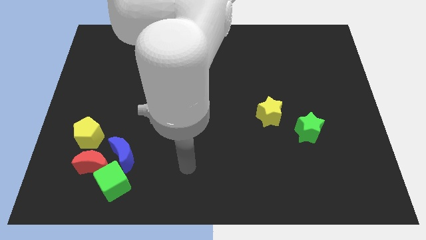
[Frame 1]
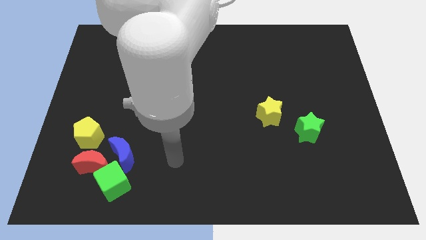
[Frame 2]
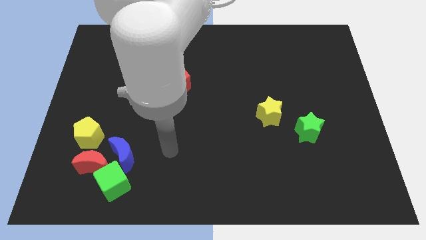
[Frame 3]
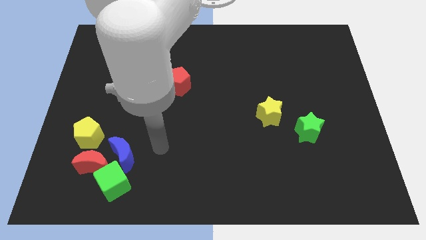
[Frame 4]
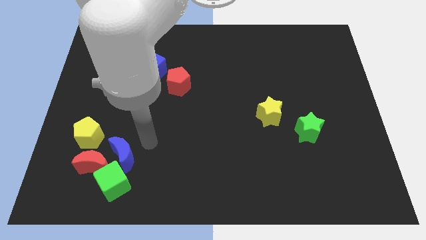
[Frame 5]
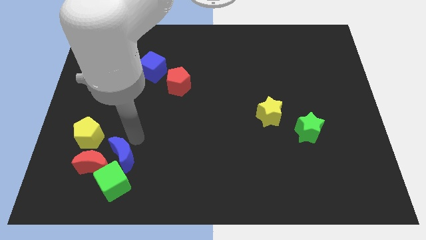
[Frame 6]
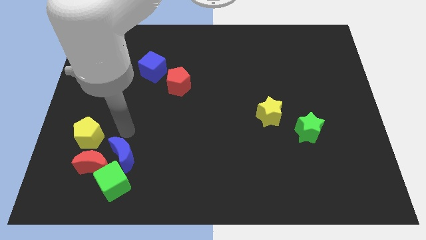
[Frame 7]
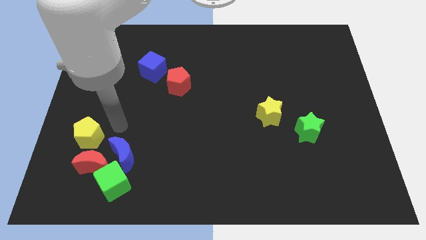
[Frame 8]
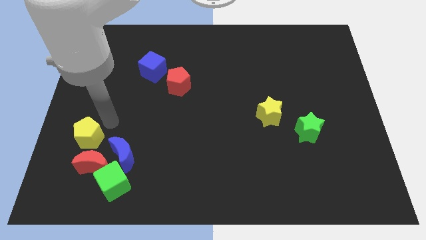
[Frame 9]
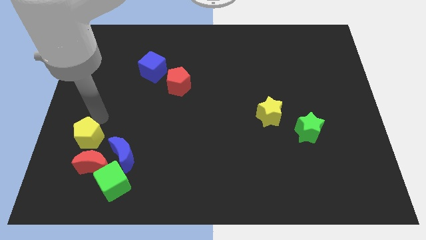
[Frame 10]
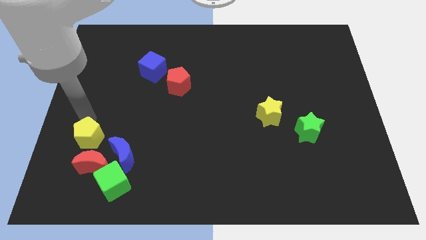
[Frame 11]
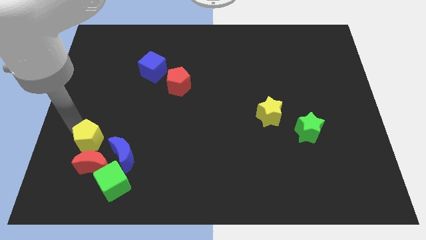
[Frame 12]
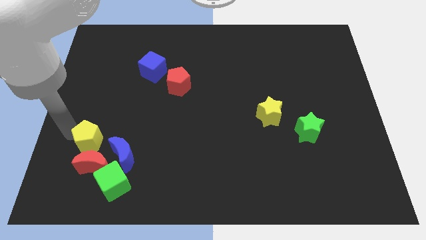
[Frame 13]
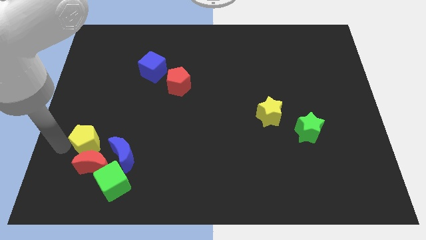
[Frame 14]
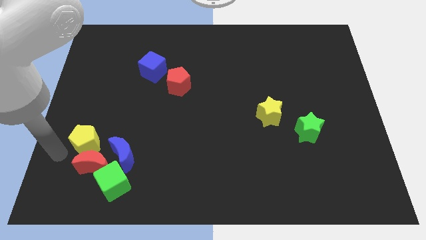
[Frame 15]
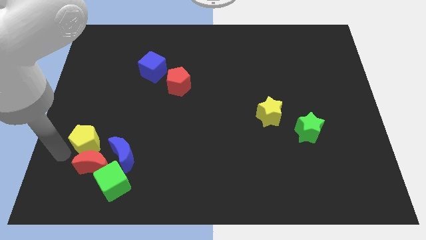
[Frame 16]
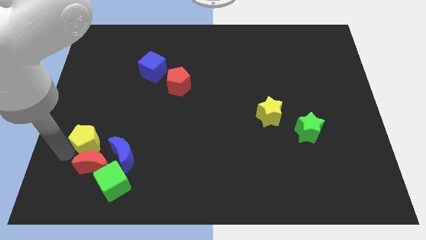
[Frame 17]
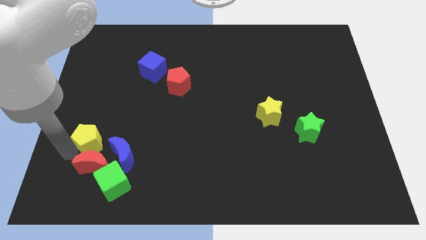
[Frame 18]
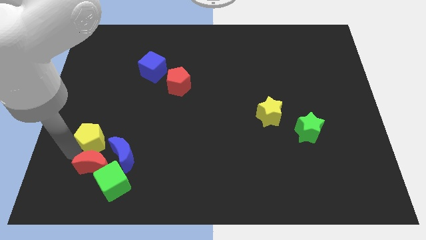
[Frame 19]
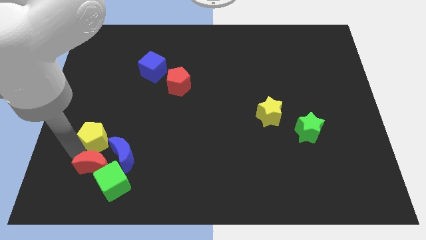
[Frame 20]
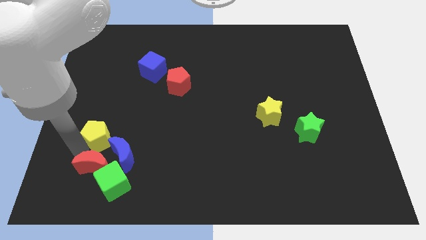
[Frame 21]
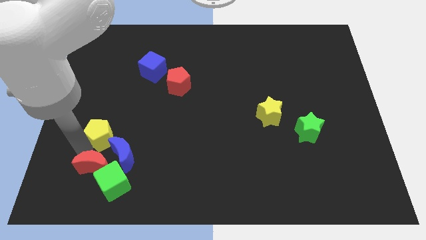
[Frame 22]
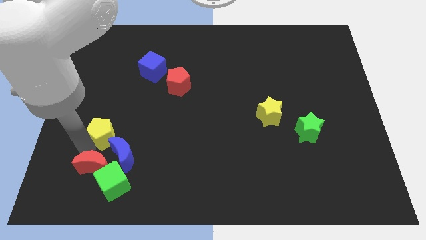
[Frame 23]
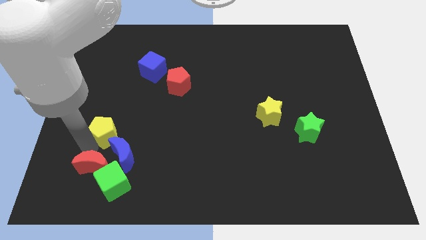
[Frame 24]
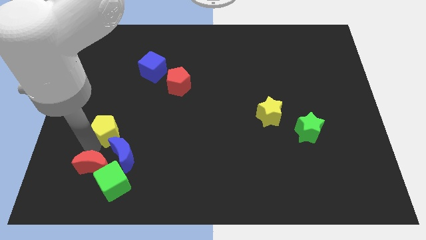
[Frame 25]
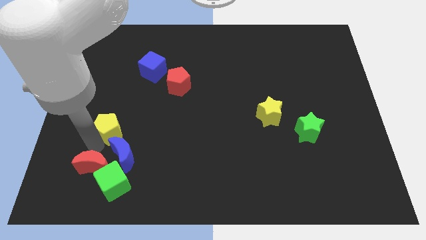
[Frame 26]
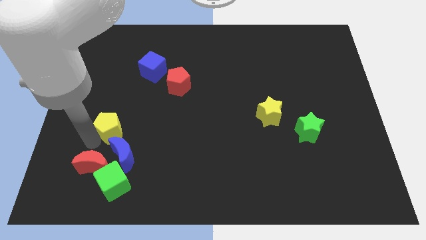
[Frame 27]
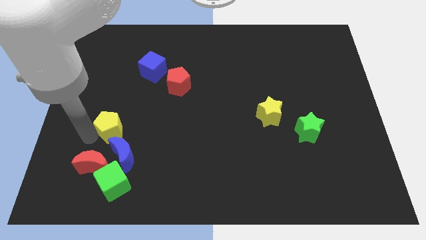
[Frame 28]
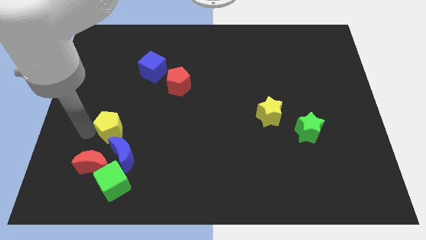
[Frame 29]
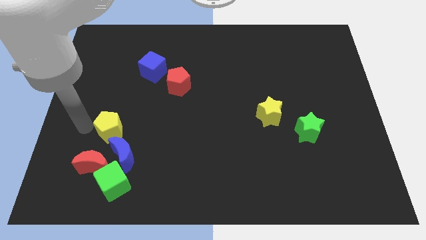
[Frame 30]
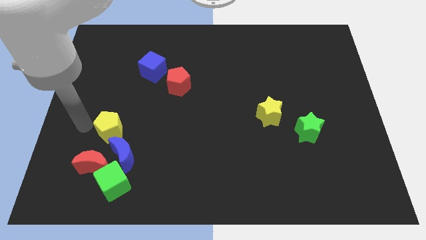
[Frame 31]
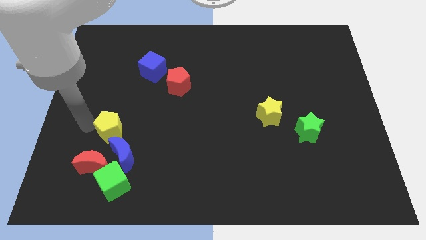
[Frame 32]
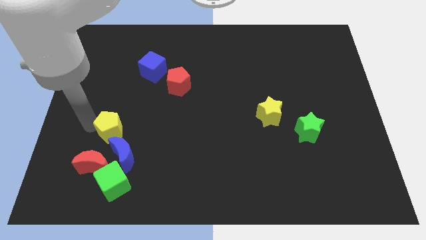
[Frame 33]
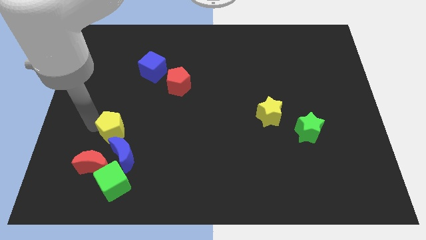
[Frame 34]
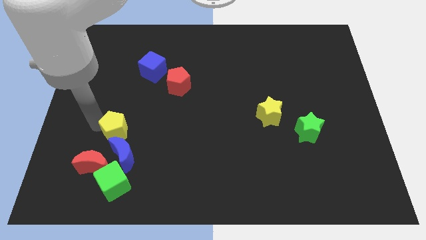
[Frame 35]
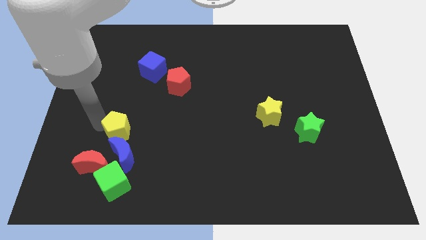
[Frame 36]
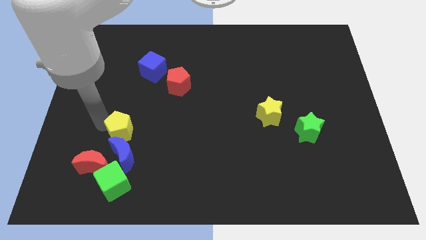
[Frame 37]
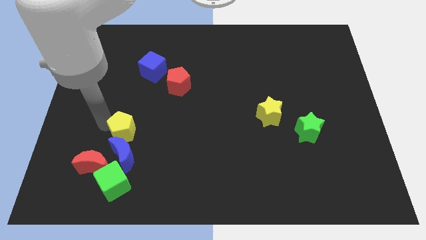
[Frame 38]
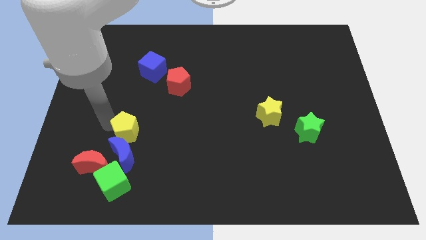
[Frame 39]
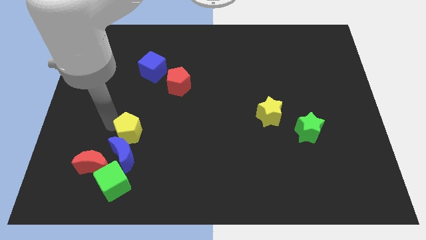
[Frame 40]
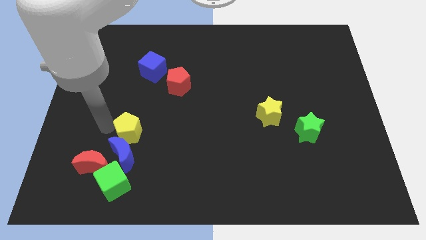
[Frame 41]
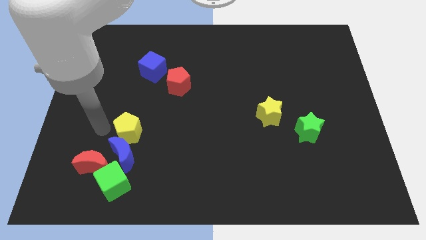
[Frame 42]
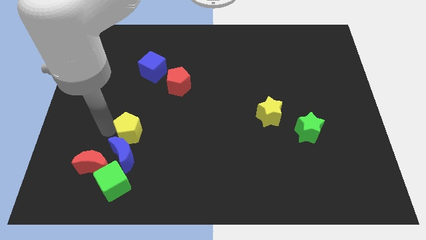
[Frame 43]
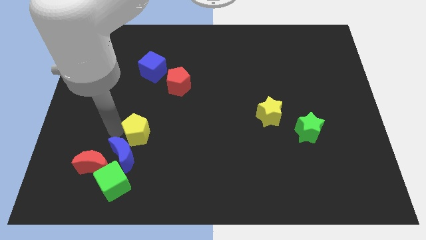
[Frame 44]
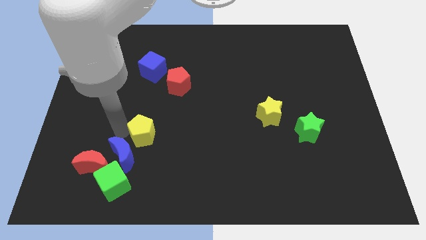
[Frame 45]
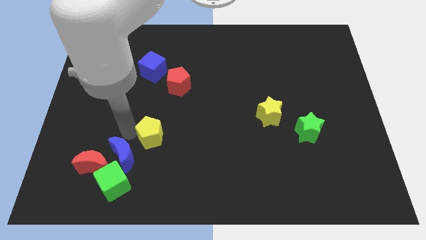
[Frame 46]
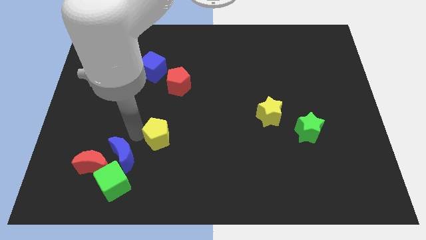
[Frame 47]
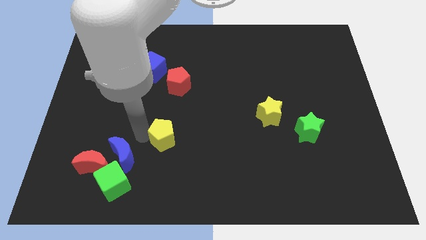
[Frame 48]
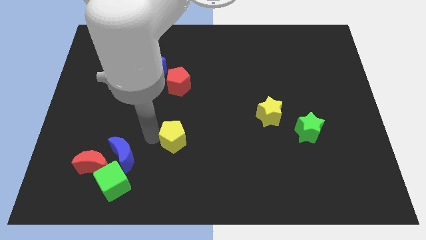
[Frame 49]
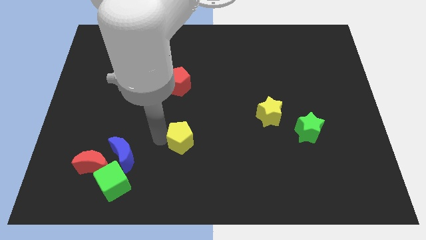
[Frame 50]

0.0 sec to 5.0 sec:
push the yellow pentagon right

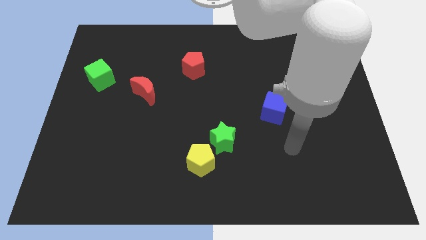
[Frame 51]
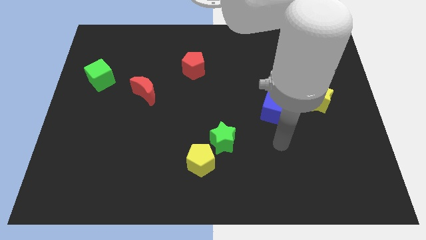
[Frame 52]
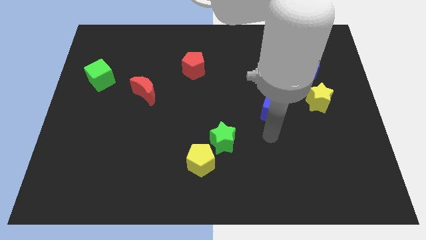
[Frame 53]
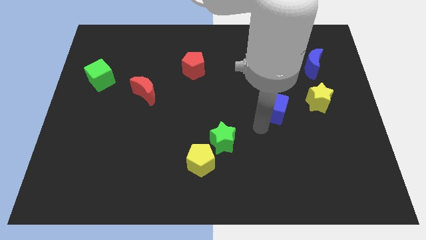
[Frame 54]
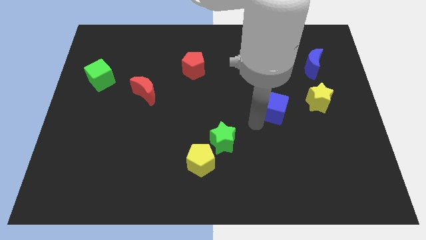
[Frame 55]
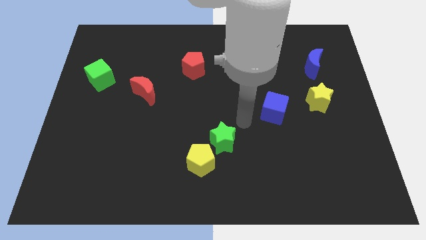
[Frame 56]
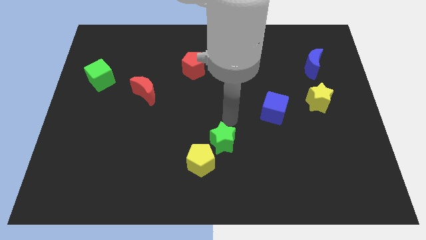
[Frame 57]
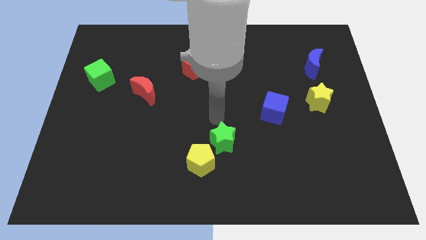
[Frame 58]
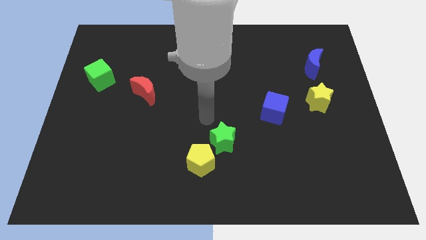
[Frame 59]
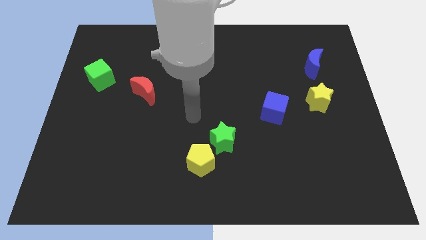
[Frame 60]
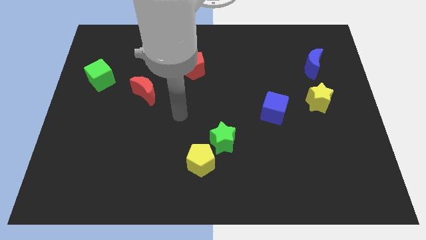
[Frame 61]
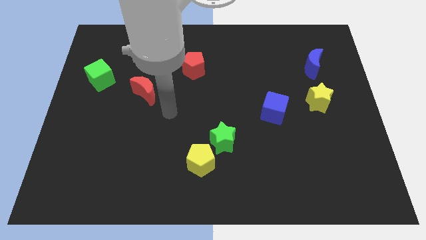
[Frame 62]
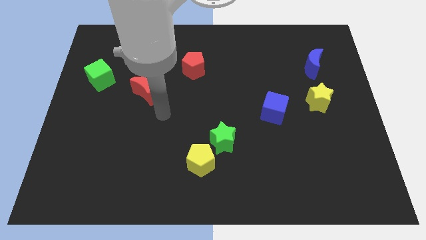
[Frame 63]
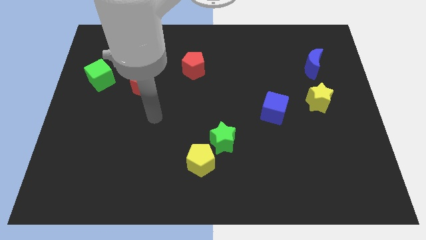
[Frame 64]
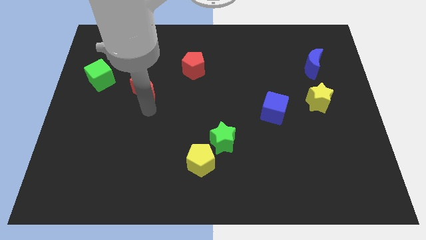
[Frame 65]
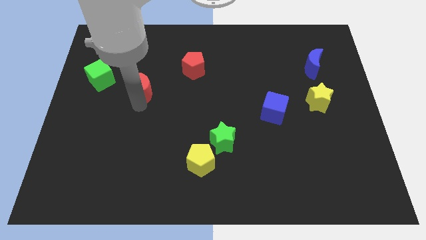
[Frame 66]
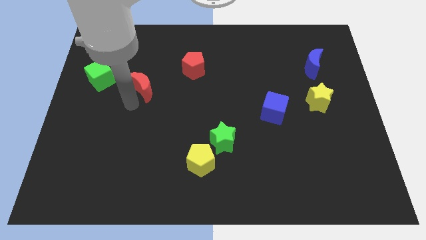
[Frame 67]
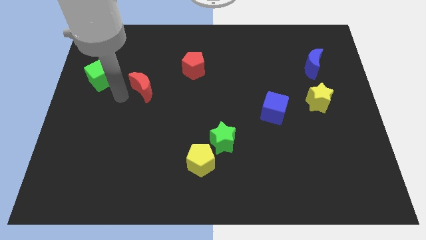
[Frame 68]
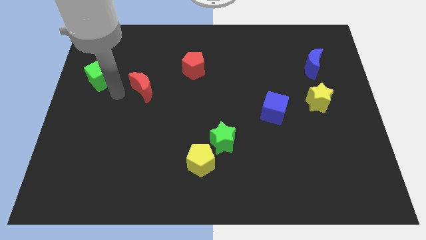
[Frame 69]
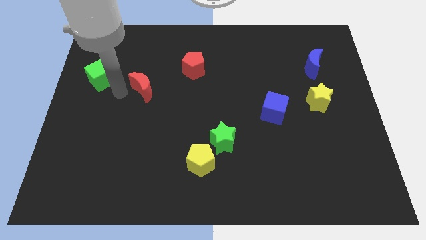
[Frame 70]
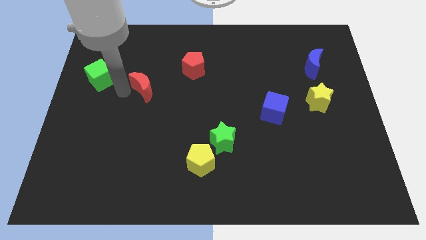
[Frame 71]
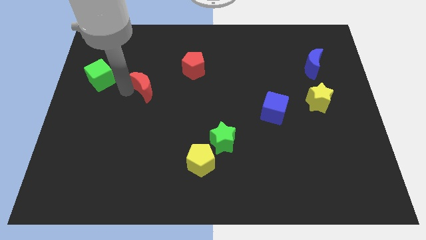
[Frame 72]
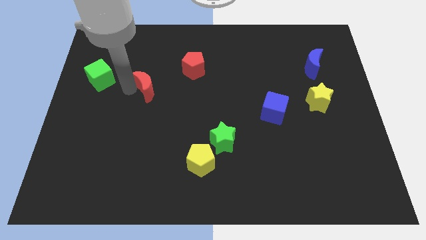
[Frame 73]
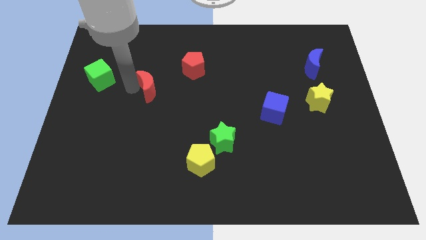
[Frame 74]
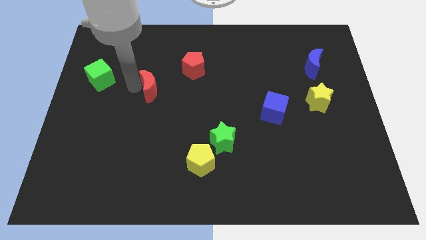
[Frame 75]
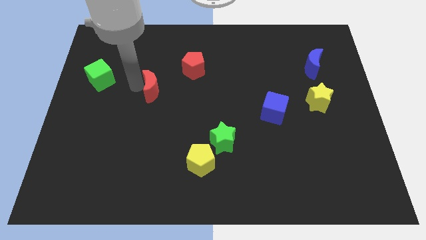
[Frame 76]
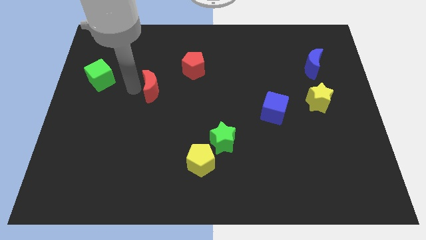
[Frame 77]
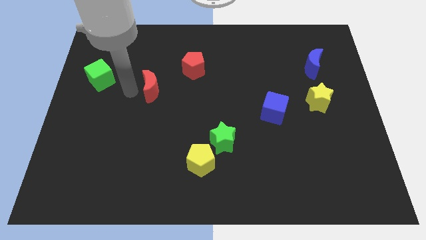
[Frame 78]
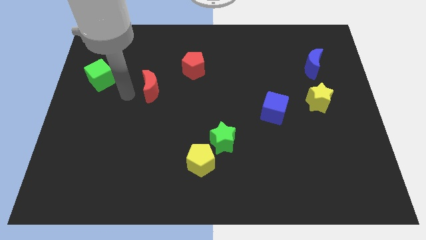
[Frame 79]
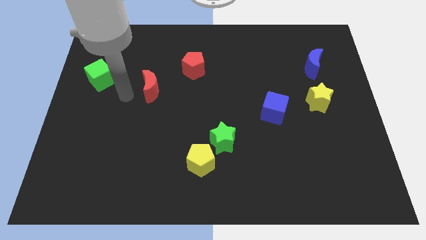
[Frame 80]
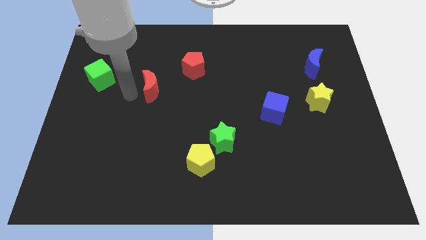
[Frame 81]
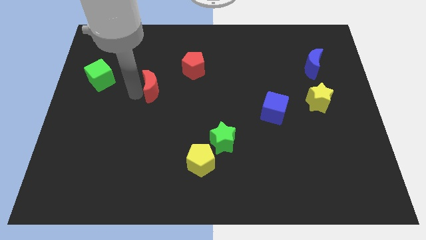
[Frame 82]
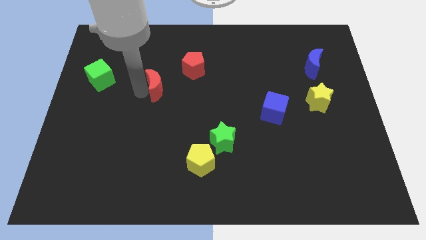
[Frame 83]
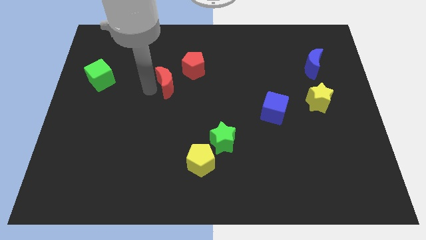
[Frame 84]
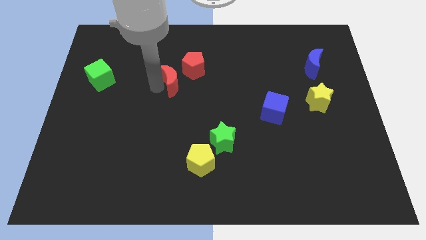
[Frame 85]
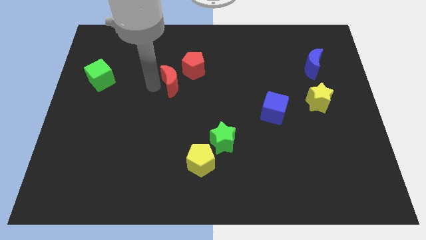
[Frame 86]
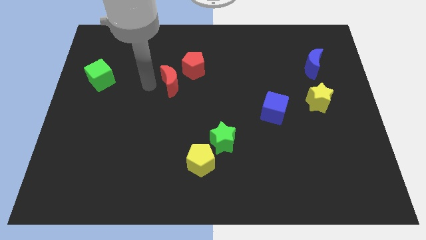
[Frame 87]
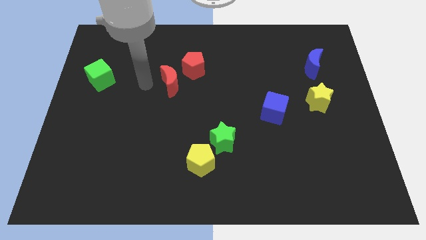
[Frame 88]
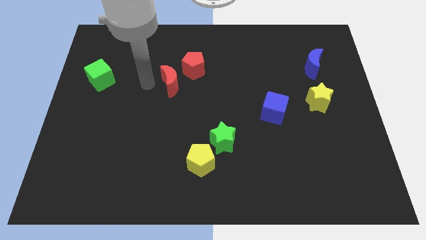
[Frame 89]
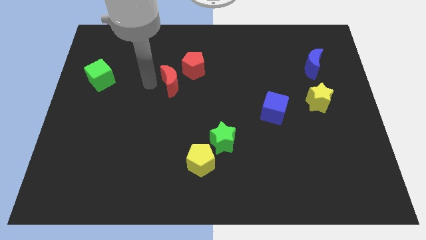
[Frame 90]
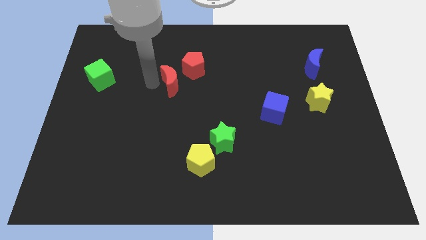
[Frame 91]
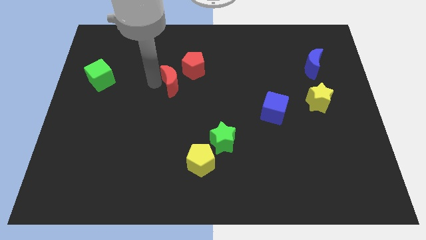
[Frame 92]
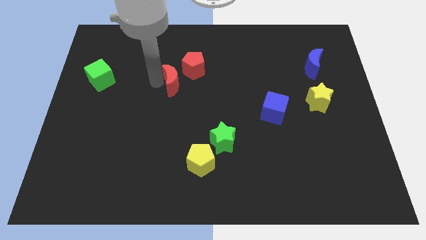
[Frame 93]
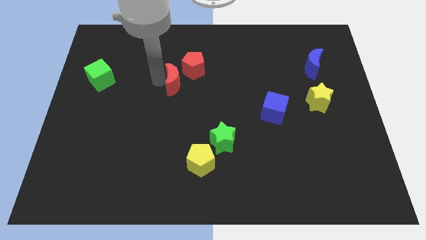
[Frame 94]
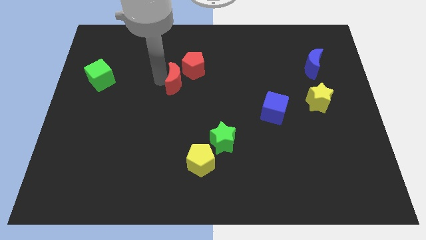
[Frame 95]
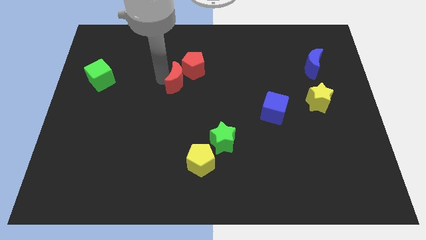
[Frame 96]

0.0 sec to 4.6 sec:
slide the red moon a bit right
